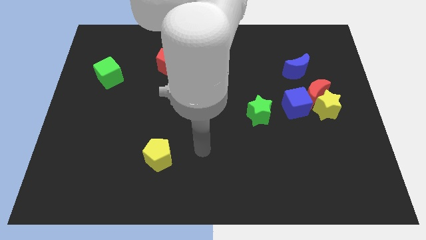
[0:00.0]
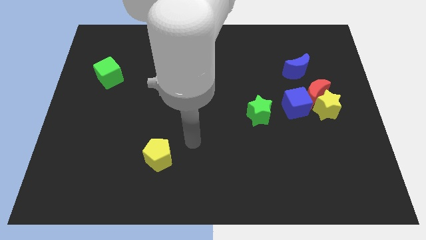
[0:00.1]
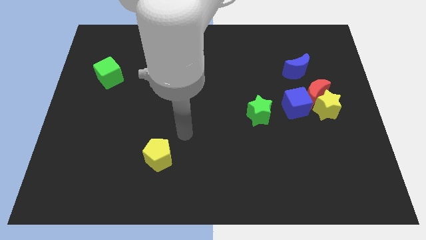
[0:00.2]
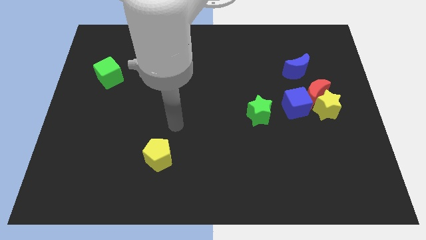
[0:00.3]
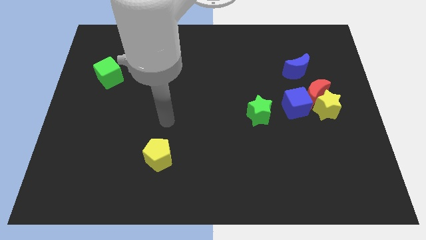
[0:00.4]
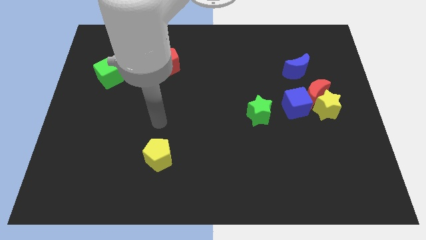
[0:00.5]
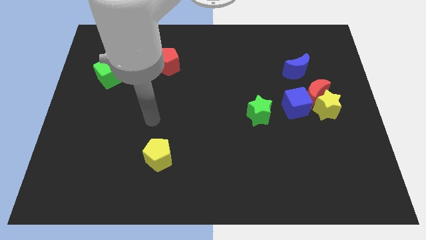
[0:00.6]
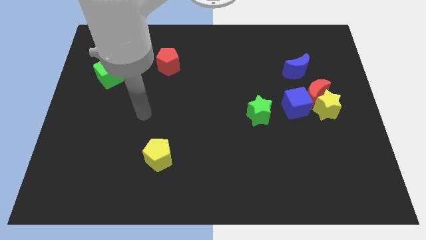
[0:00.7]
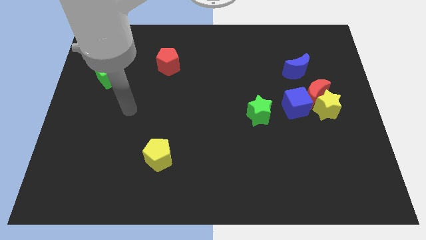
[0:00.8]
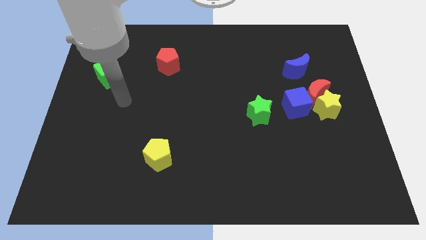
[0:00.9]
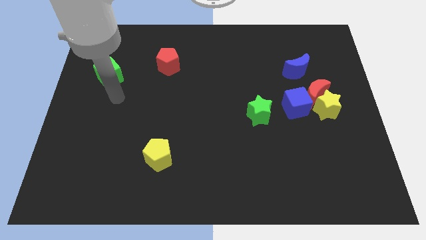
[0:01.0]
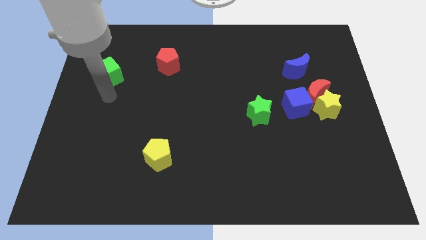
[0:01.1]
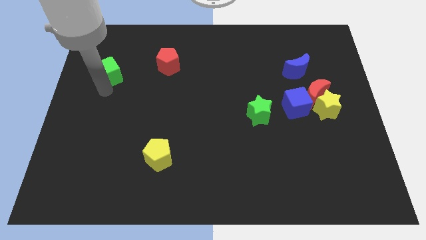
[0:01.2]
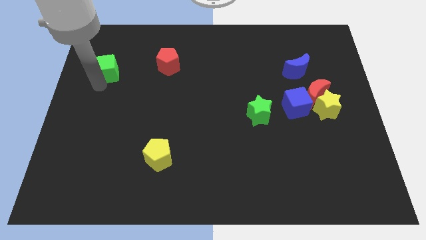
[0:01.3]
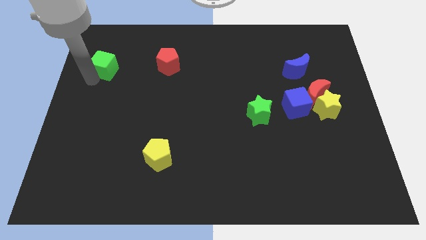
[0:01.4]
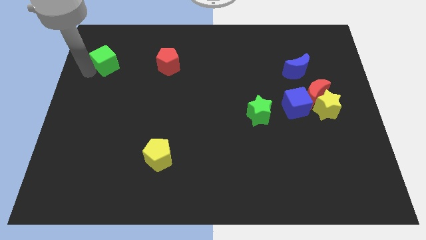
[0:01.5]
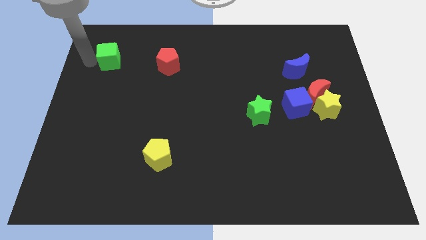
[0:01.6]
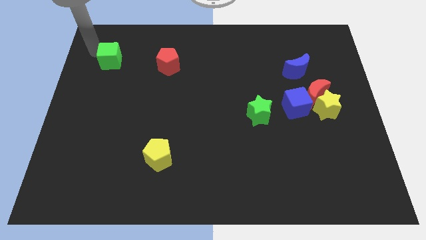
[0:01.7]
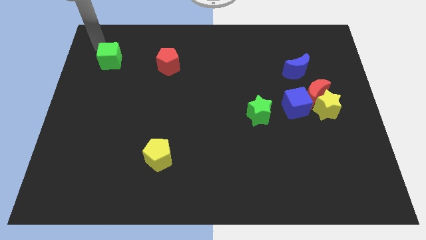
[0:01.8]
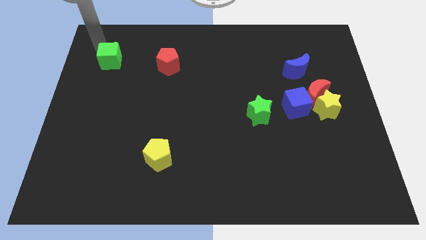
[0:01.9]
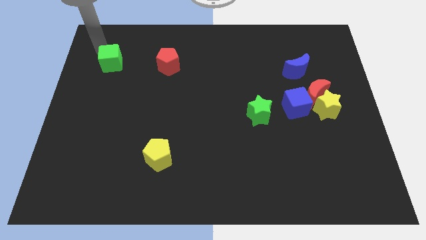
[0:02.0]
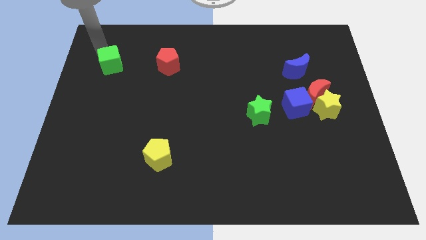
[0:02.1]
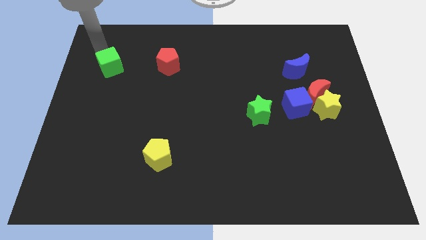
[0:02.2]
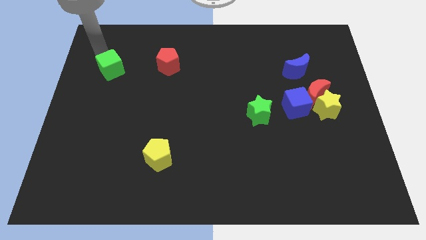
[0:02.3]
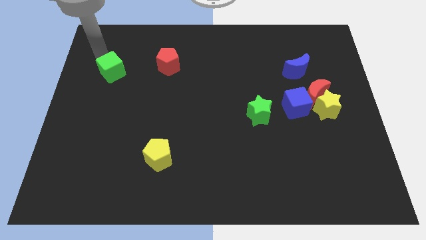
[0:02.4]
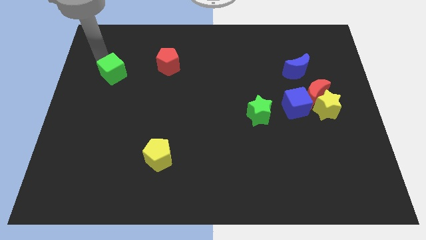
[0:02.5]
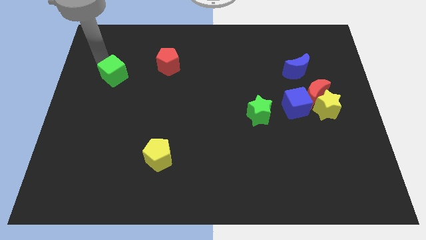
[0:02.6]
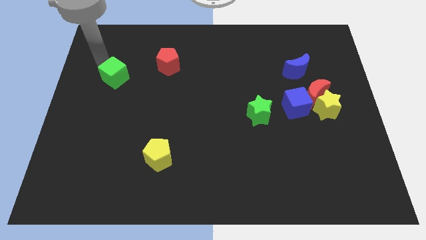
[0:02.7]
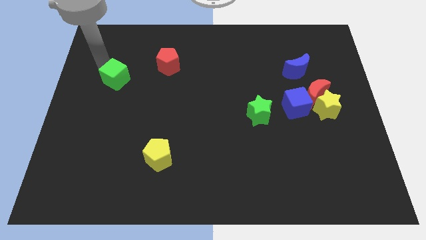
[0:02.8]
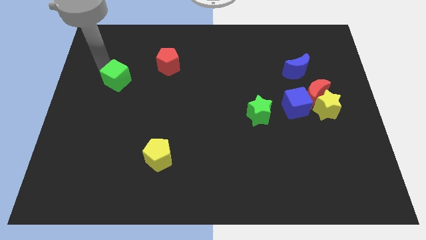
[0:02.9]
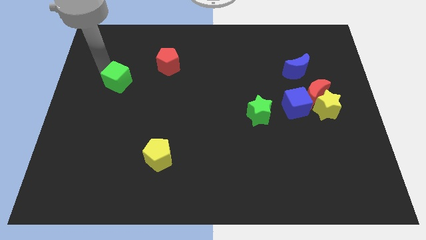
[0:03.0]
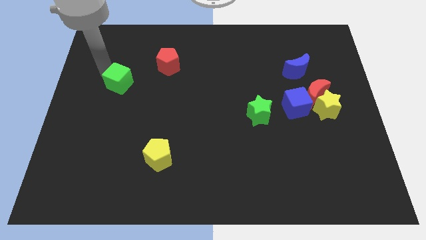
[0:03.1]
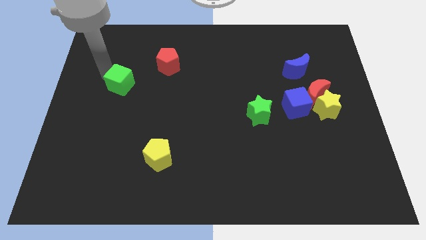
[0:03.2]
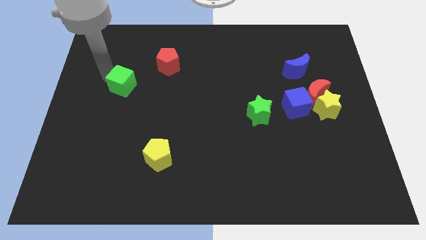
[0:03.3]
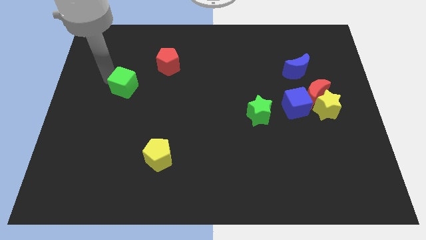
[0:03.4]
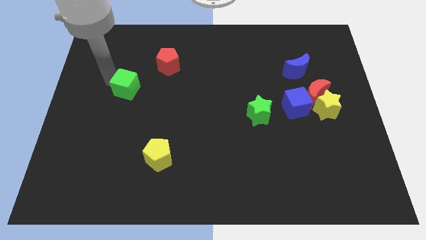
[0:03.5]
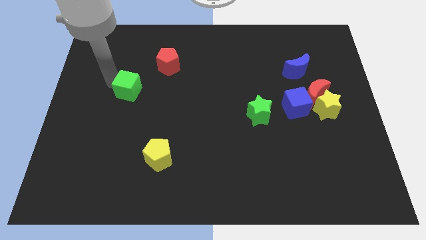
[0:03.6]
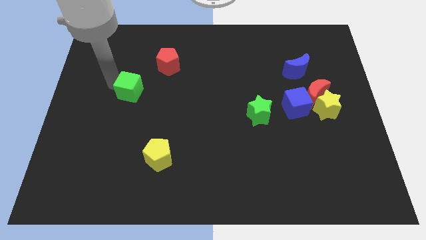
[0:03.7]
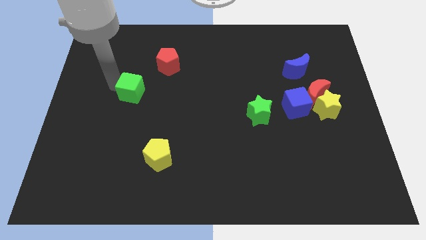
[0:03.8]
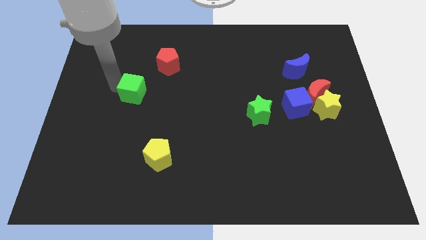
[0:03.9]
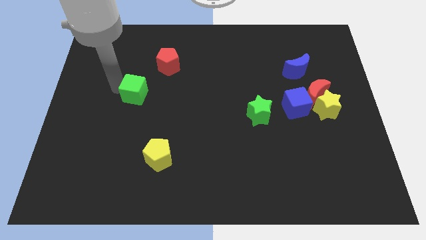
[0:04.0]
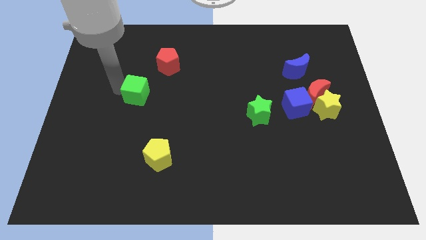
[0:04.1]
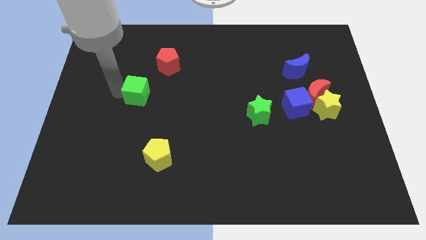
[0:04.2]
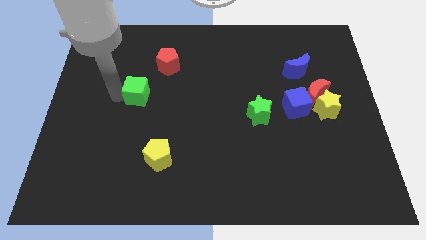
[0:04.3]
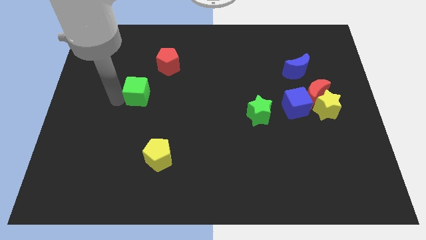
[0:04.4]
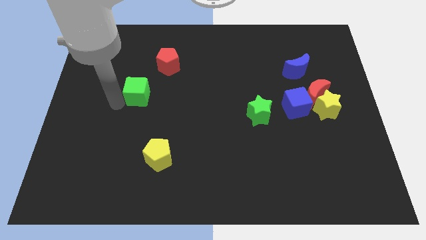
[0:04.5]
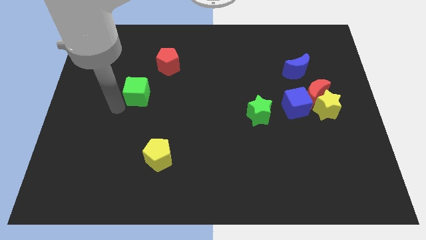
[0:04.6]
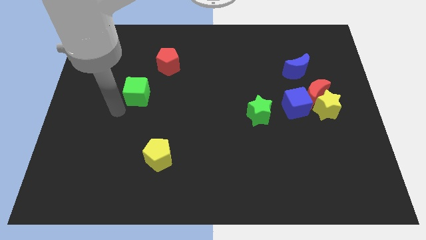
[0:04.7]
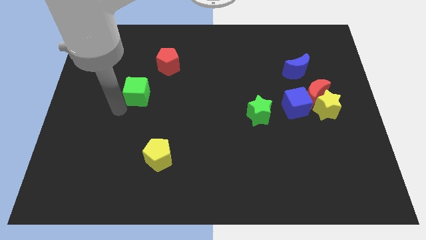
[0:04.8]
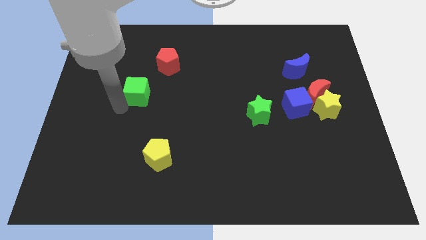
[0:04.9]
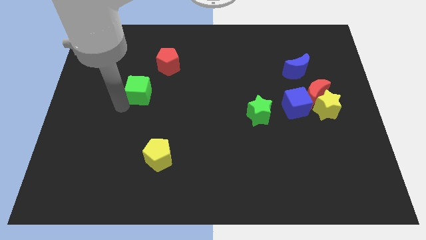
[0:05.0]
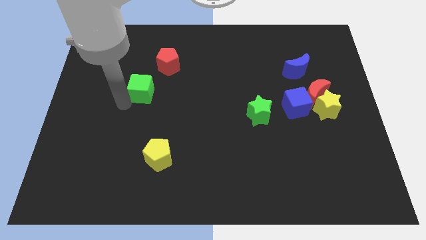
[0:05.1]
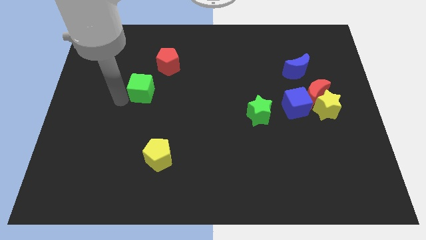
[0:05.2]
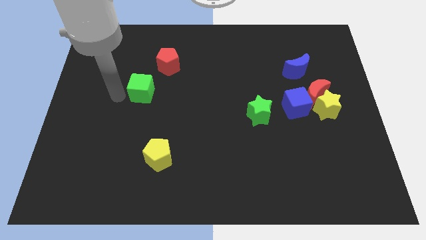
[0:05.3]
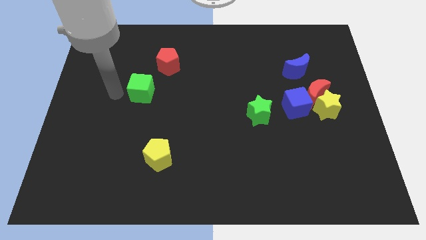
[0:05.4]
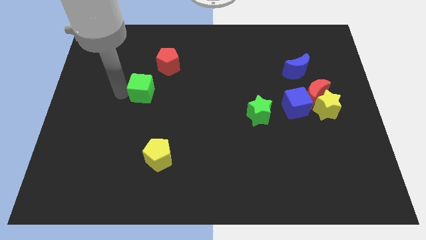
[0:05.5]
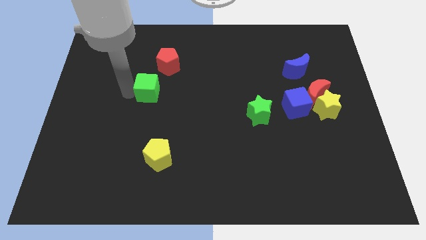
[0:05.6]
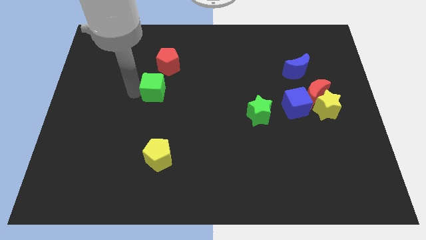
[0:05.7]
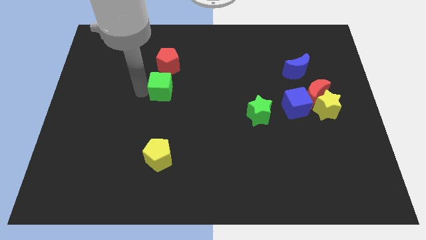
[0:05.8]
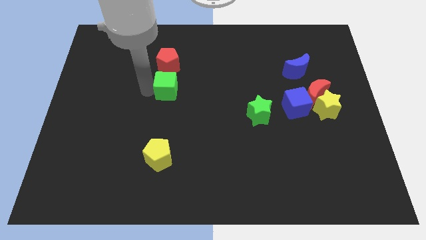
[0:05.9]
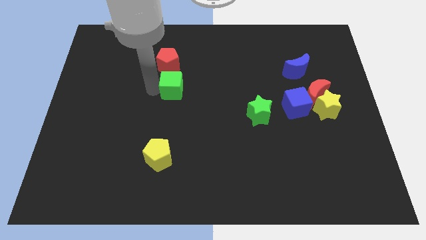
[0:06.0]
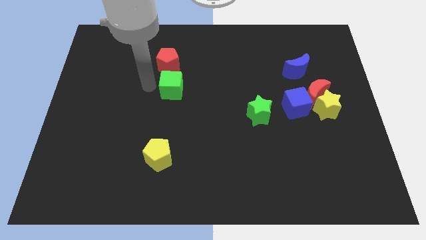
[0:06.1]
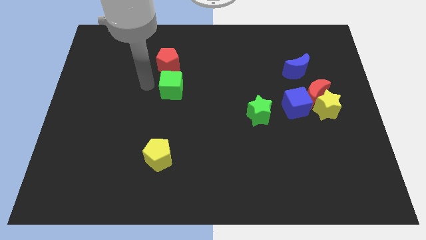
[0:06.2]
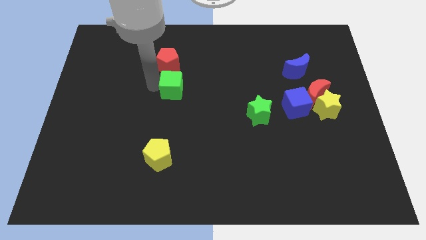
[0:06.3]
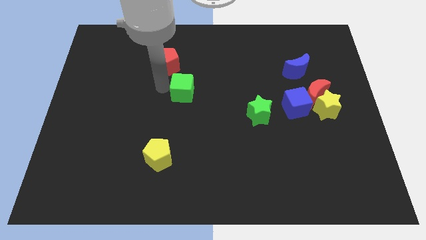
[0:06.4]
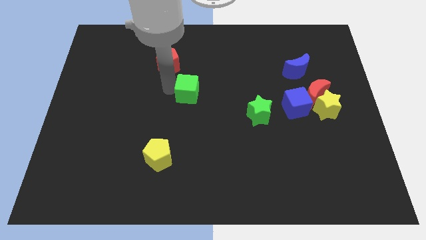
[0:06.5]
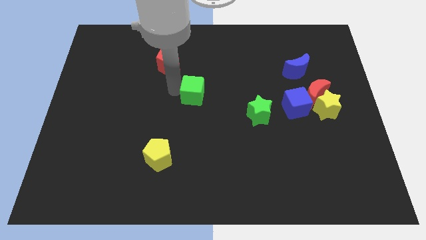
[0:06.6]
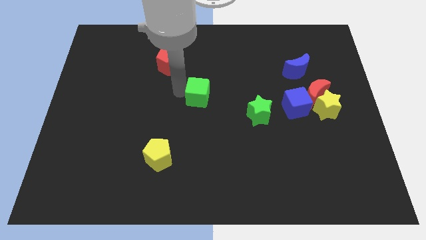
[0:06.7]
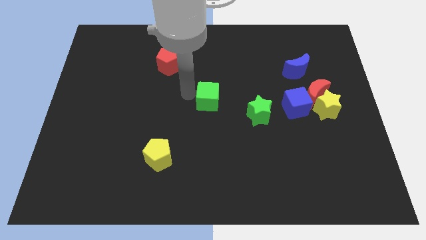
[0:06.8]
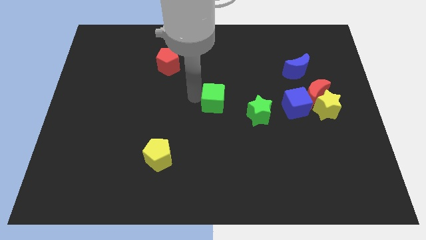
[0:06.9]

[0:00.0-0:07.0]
move the green cube diagonally up and to the left of the green star

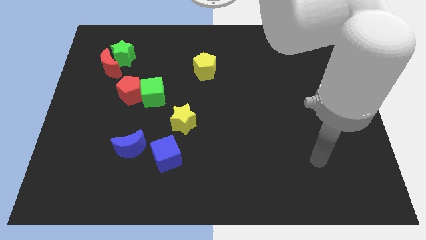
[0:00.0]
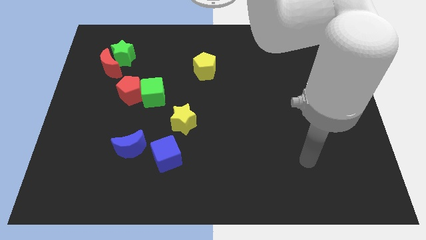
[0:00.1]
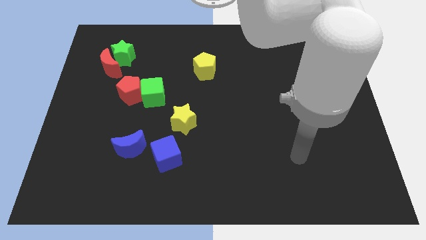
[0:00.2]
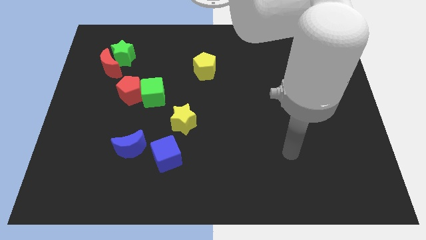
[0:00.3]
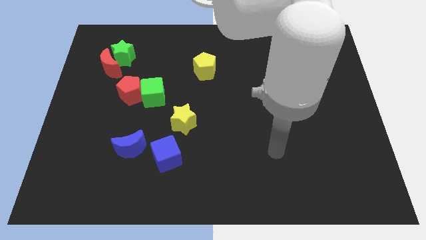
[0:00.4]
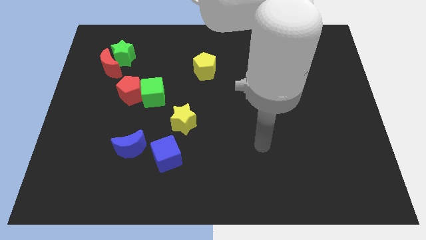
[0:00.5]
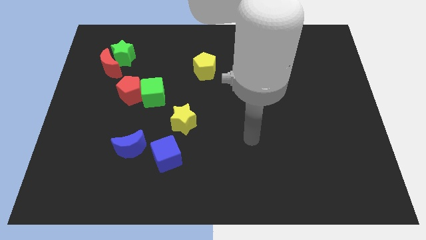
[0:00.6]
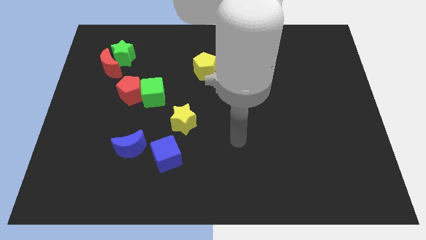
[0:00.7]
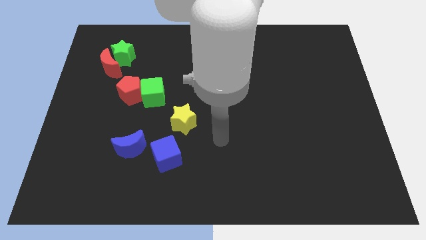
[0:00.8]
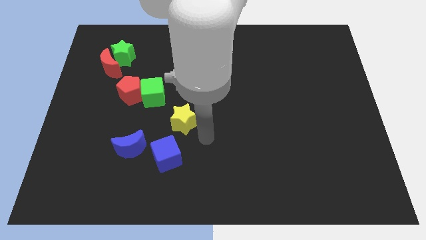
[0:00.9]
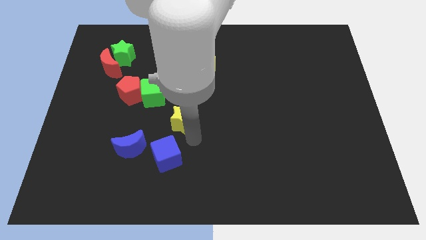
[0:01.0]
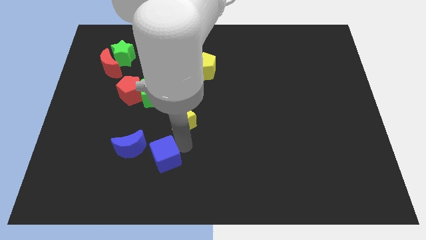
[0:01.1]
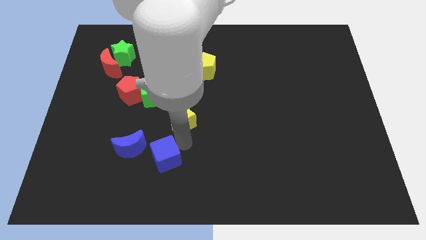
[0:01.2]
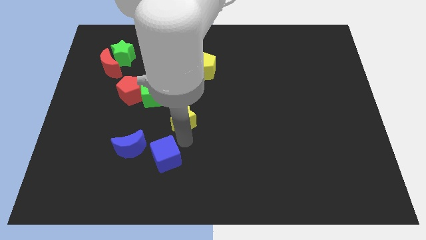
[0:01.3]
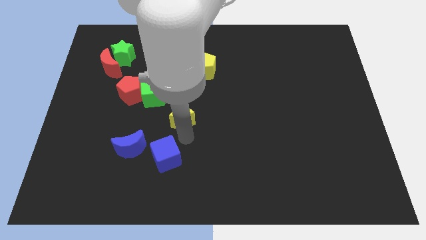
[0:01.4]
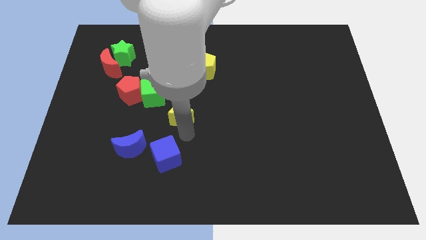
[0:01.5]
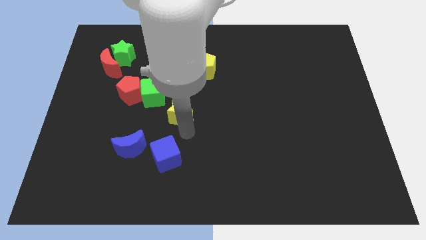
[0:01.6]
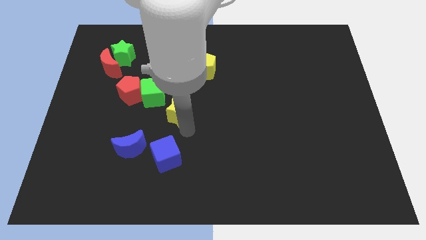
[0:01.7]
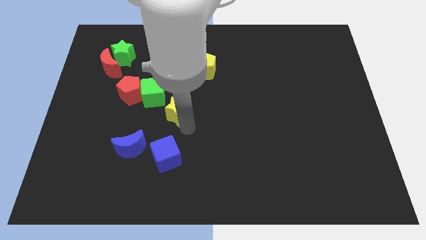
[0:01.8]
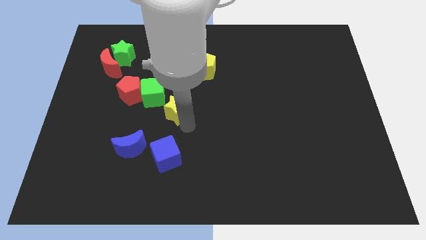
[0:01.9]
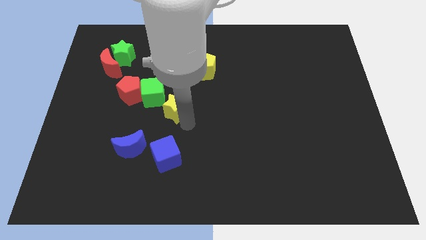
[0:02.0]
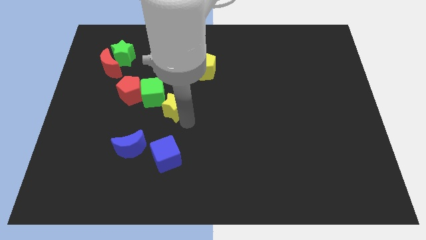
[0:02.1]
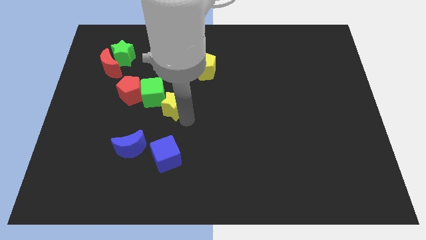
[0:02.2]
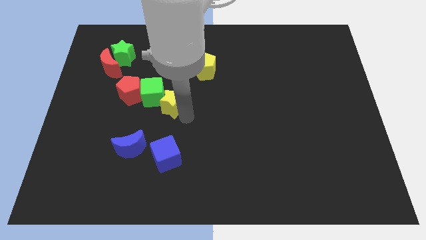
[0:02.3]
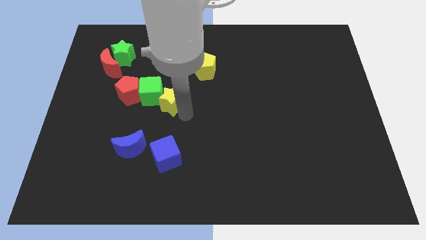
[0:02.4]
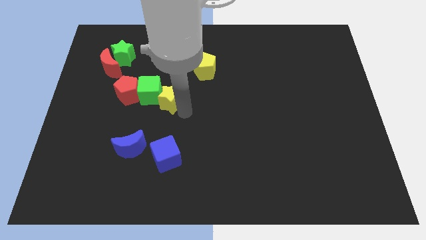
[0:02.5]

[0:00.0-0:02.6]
slide the yellow star to the bottom left of the yellow pentagon
